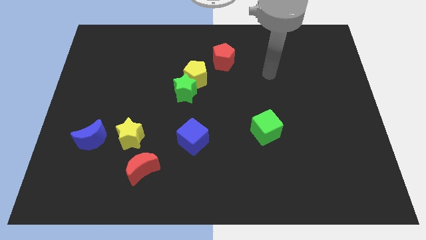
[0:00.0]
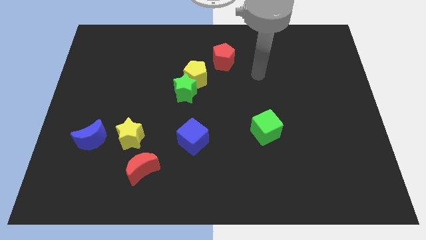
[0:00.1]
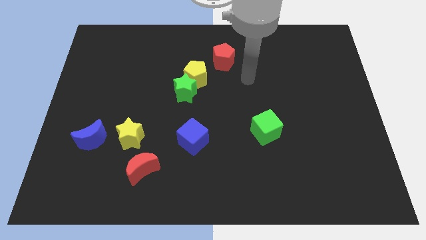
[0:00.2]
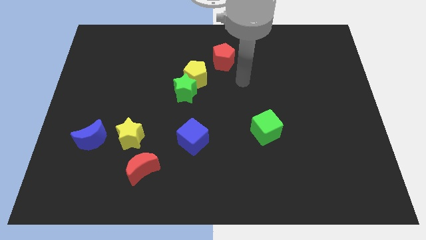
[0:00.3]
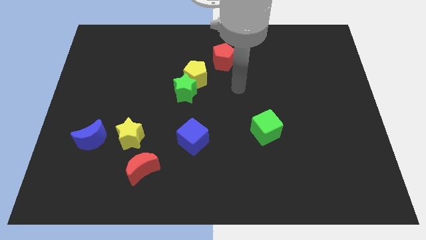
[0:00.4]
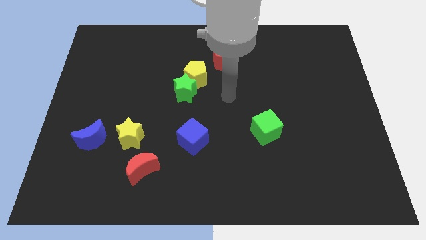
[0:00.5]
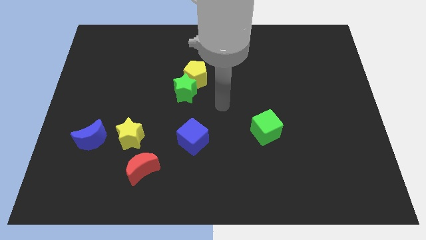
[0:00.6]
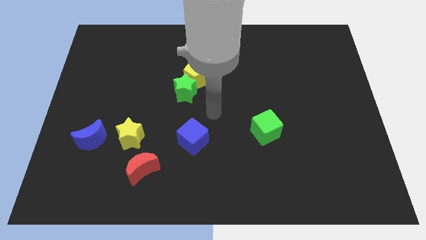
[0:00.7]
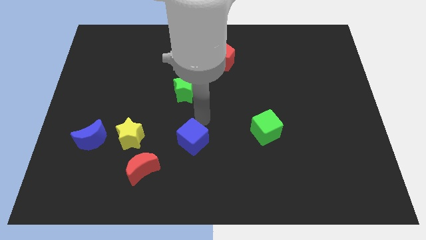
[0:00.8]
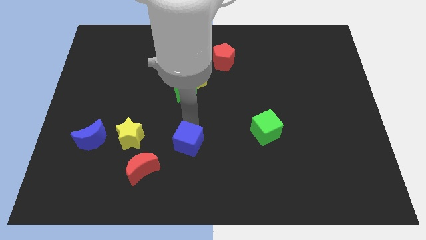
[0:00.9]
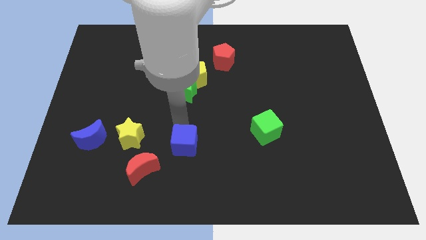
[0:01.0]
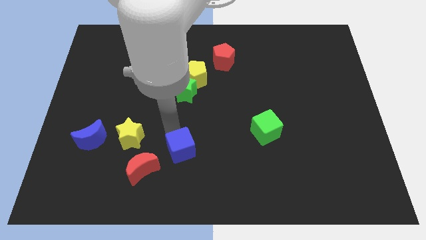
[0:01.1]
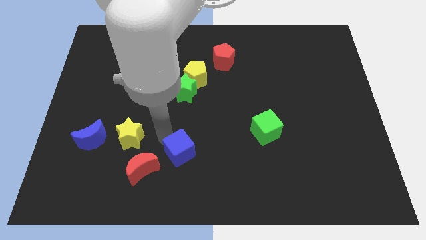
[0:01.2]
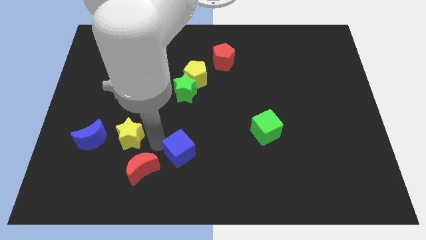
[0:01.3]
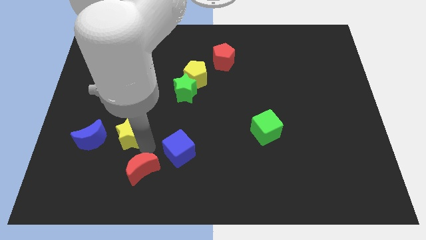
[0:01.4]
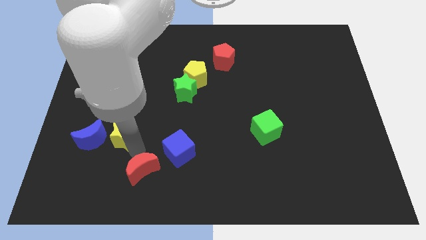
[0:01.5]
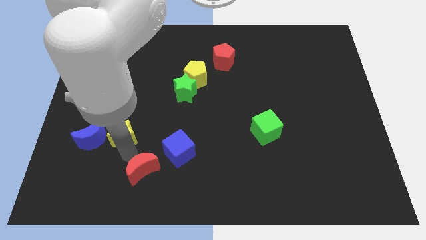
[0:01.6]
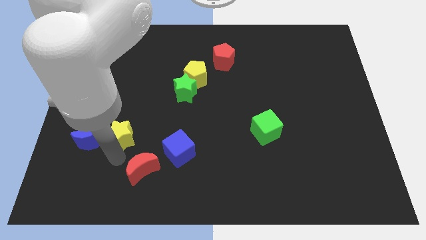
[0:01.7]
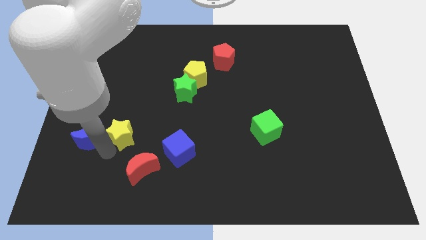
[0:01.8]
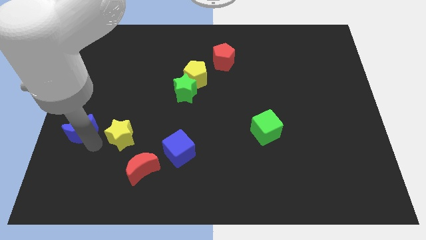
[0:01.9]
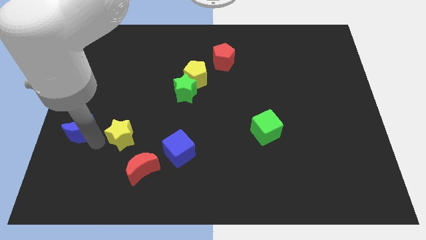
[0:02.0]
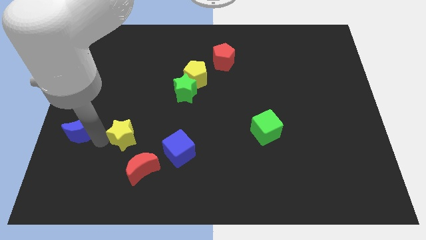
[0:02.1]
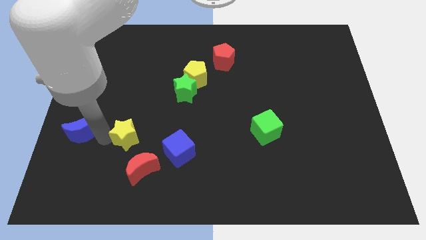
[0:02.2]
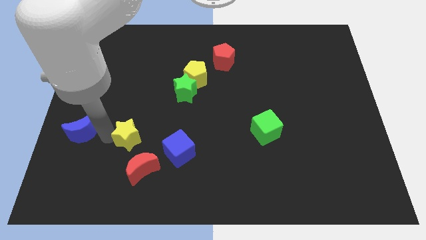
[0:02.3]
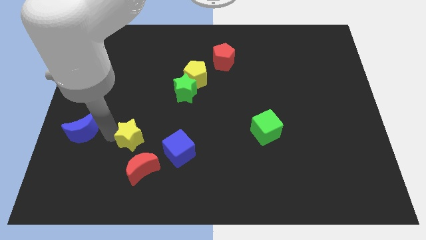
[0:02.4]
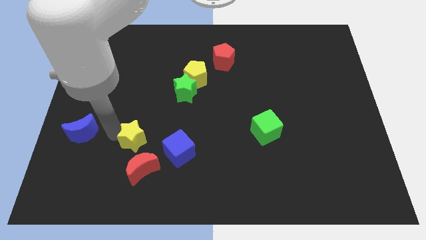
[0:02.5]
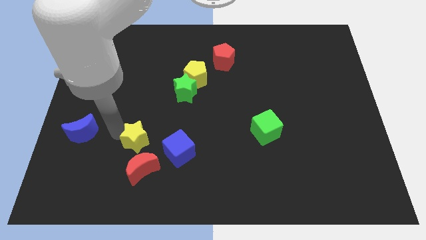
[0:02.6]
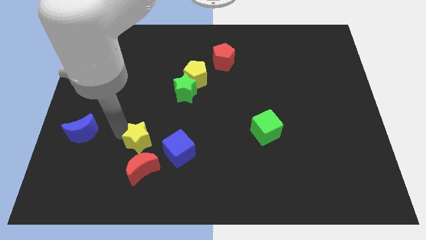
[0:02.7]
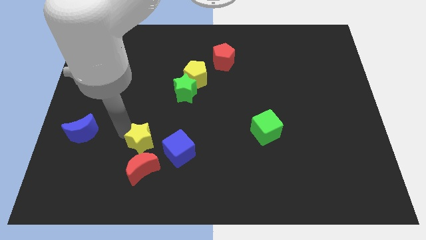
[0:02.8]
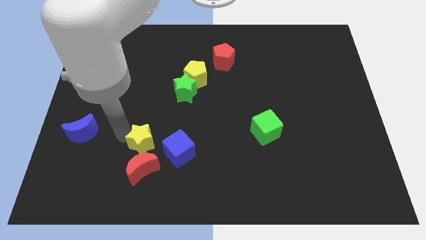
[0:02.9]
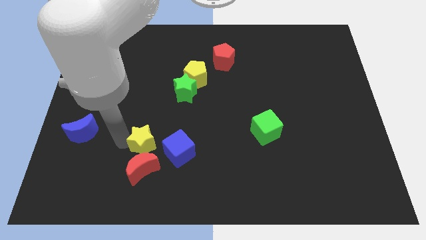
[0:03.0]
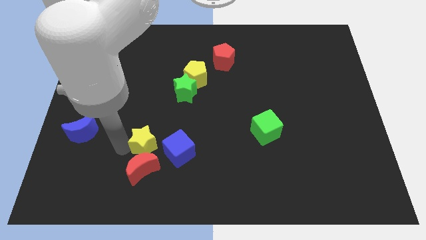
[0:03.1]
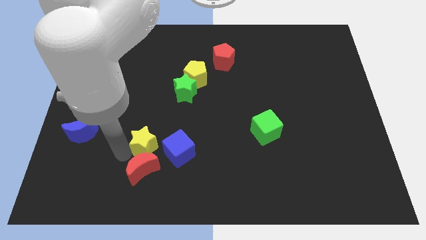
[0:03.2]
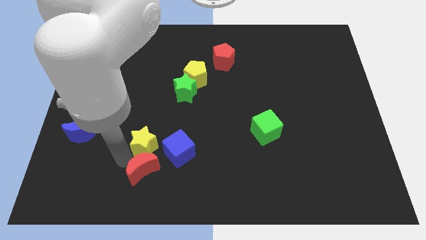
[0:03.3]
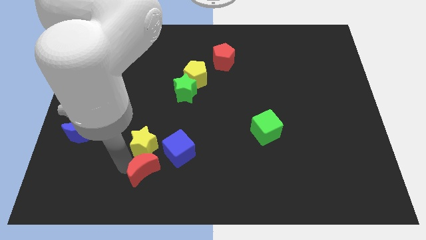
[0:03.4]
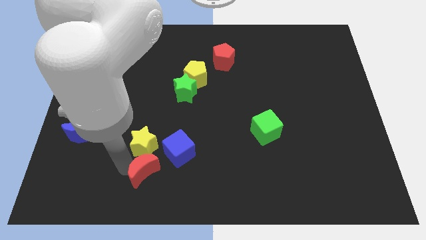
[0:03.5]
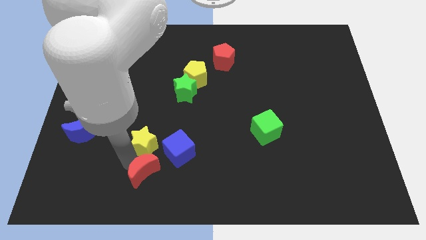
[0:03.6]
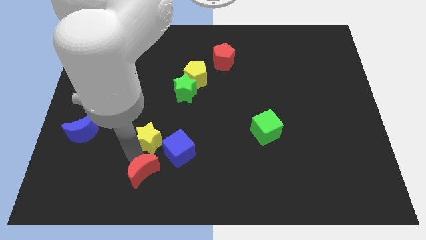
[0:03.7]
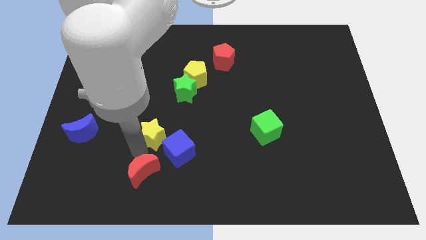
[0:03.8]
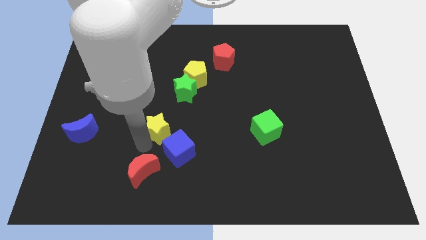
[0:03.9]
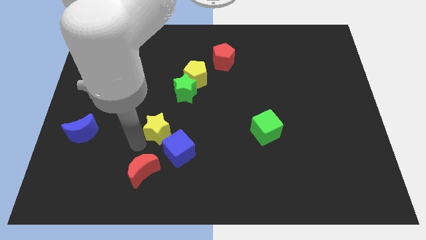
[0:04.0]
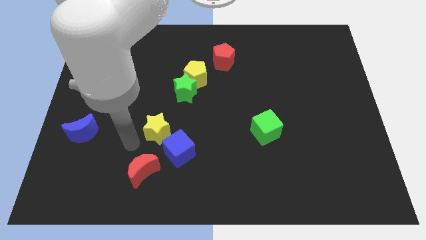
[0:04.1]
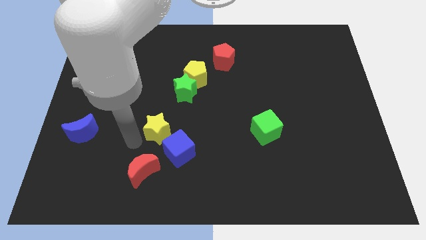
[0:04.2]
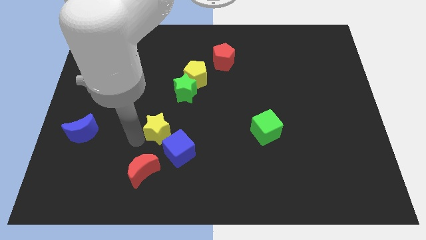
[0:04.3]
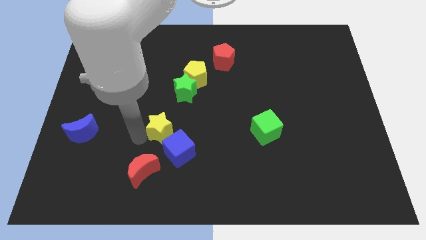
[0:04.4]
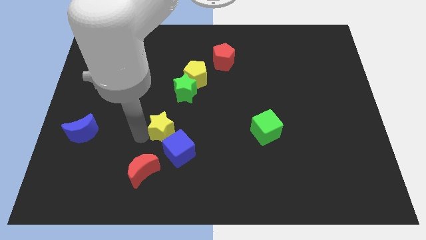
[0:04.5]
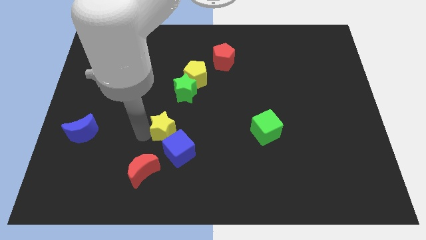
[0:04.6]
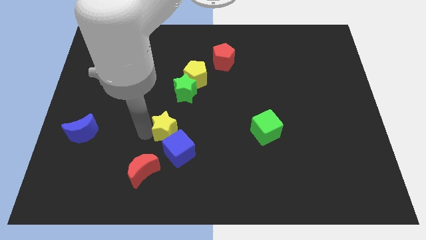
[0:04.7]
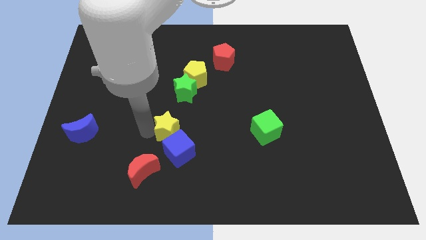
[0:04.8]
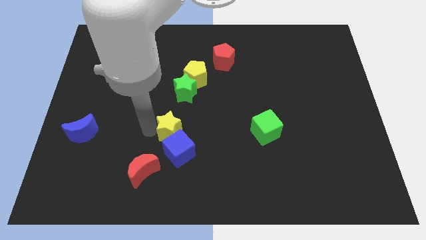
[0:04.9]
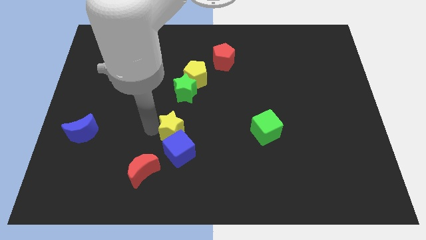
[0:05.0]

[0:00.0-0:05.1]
slide the yellow star to the middle

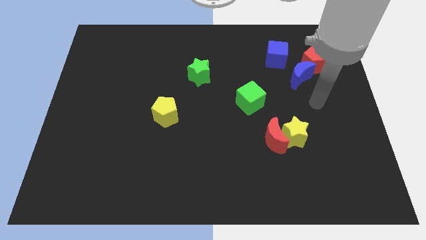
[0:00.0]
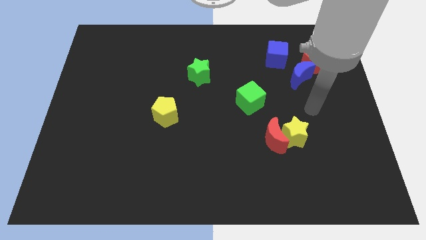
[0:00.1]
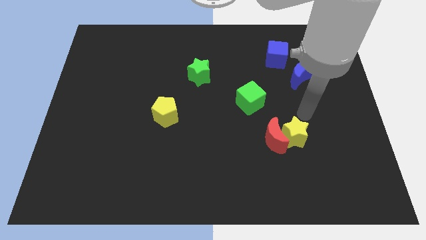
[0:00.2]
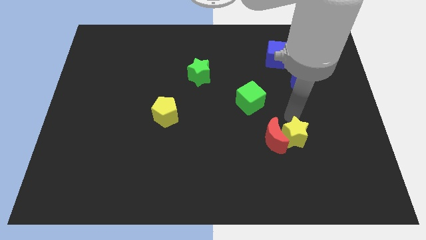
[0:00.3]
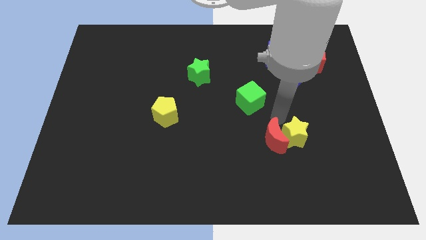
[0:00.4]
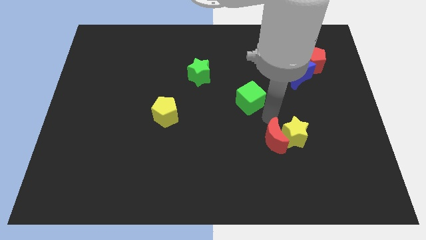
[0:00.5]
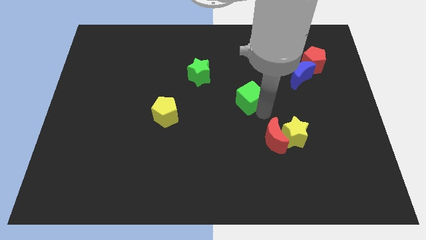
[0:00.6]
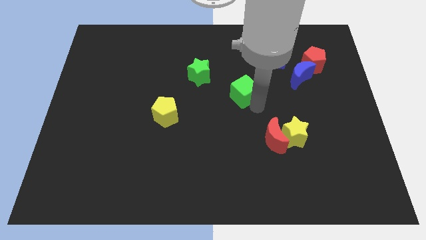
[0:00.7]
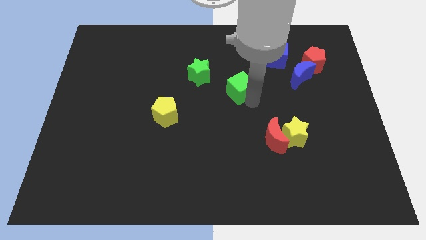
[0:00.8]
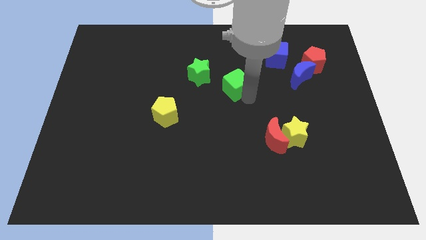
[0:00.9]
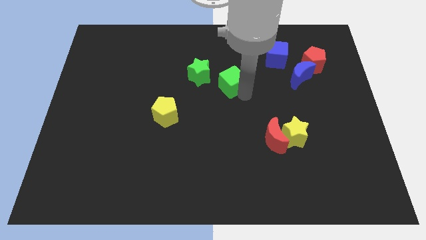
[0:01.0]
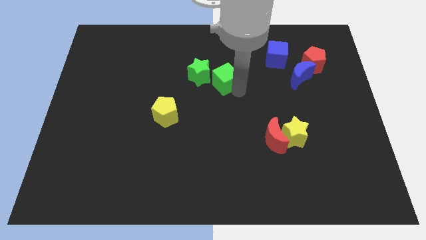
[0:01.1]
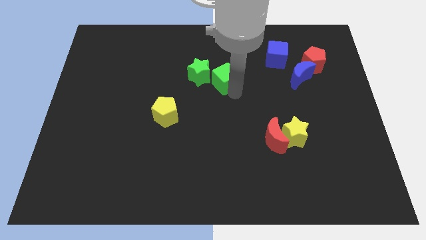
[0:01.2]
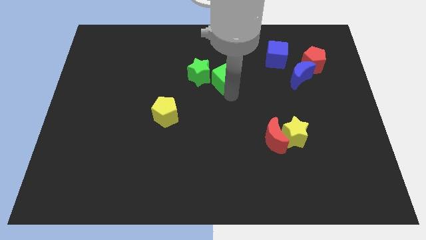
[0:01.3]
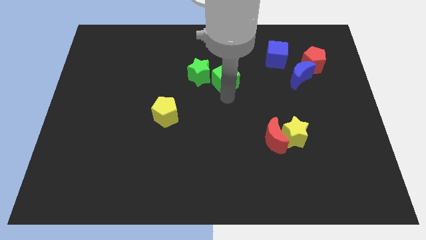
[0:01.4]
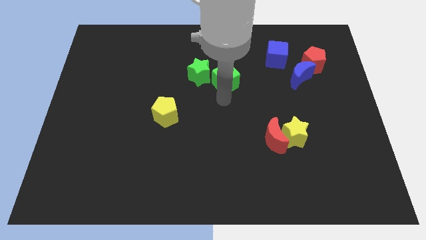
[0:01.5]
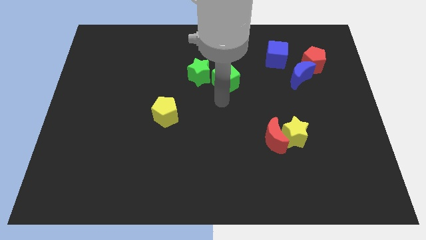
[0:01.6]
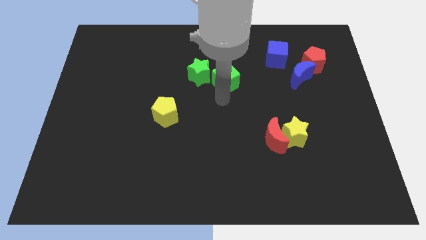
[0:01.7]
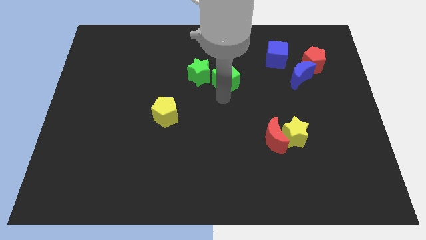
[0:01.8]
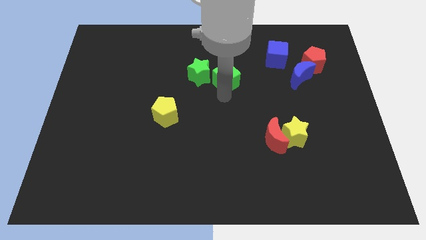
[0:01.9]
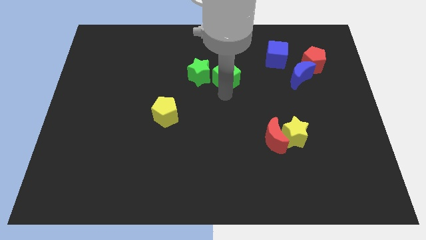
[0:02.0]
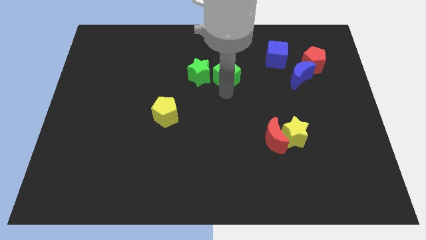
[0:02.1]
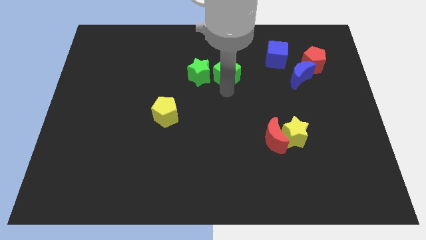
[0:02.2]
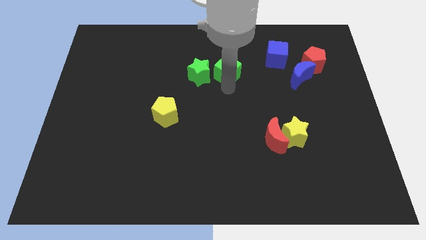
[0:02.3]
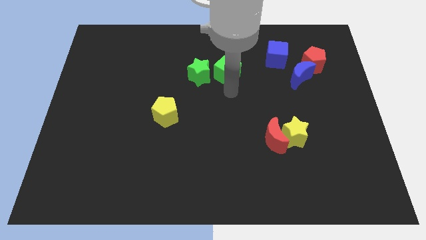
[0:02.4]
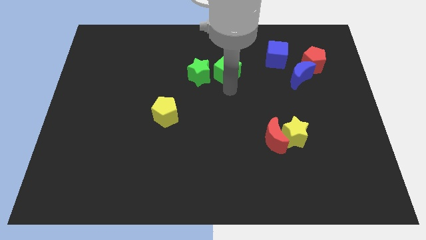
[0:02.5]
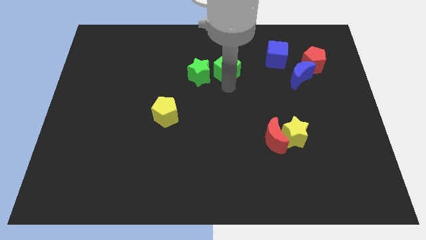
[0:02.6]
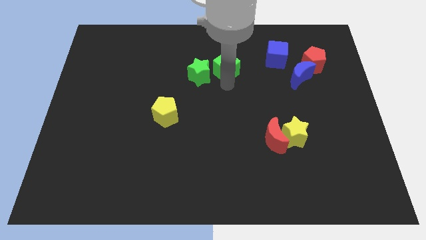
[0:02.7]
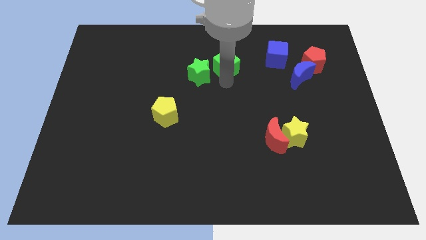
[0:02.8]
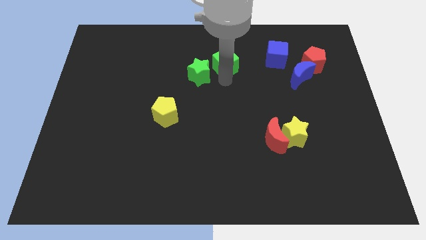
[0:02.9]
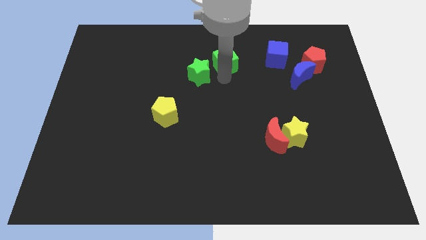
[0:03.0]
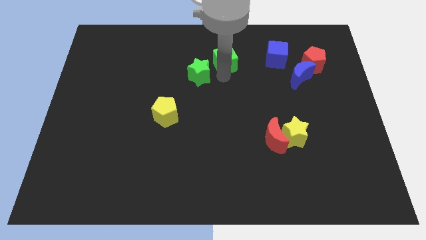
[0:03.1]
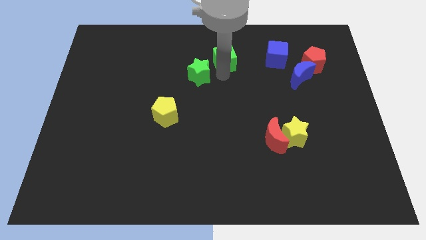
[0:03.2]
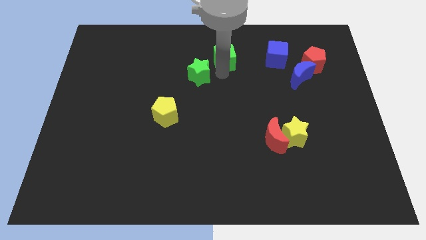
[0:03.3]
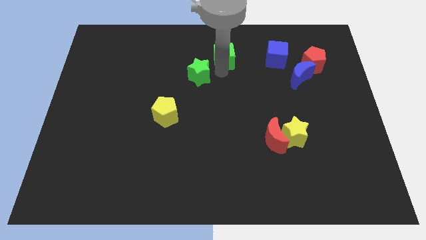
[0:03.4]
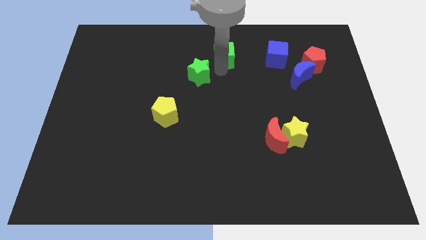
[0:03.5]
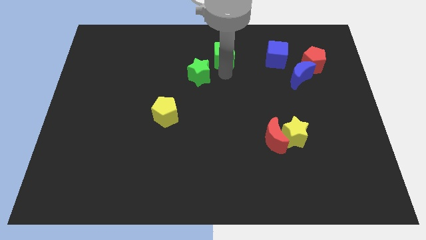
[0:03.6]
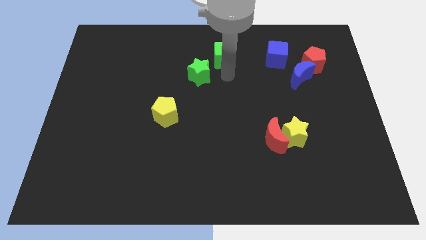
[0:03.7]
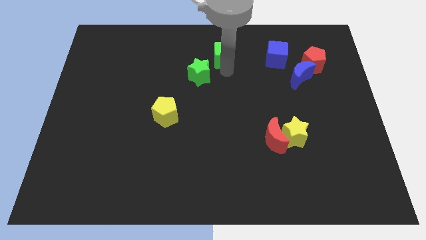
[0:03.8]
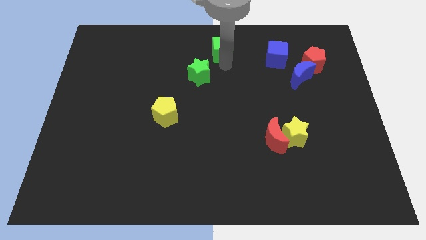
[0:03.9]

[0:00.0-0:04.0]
push the green cube to the towards your base
